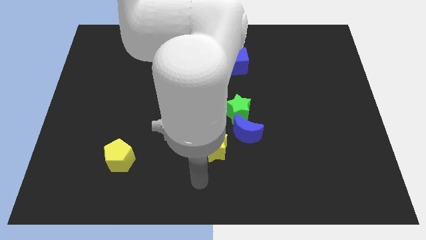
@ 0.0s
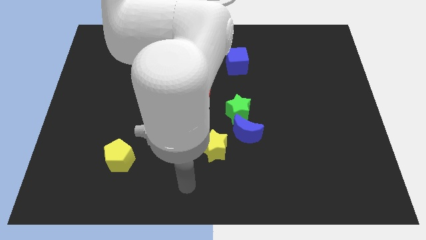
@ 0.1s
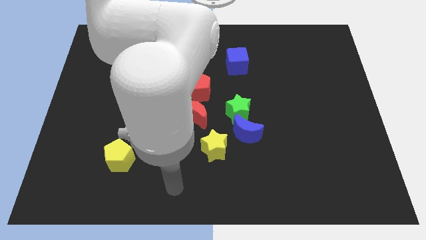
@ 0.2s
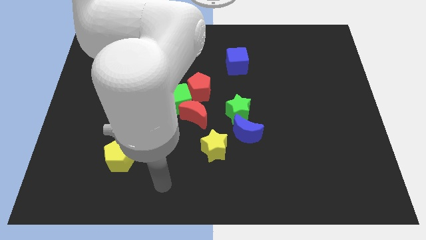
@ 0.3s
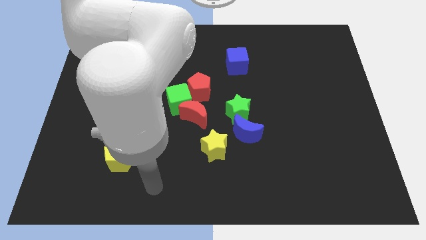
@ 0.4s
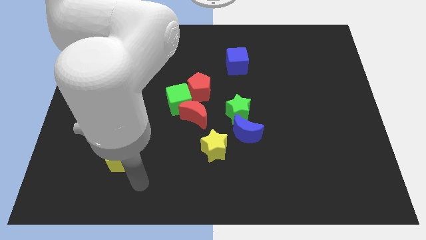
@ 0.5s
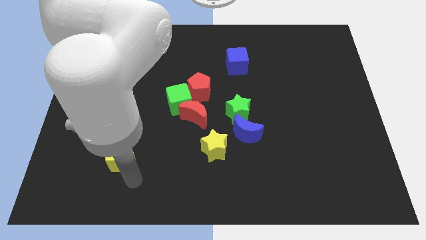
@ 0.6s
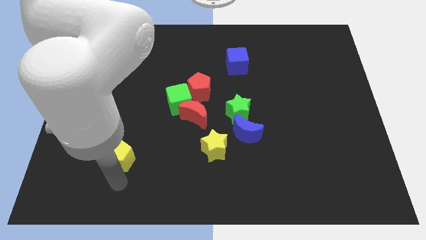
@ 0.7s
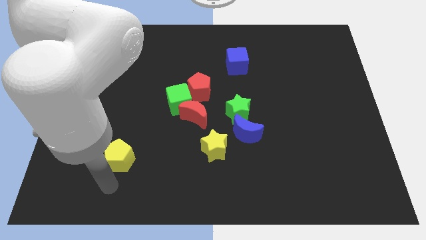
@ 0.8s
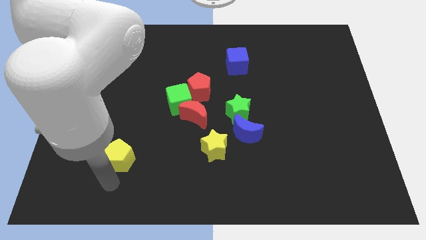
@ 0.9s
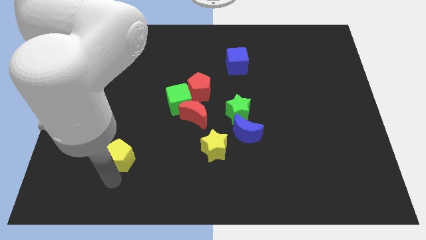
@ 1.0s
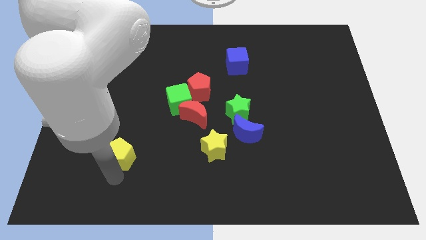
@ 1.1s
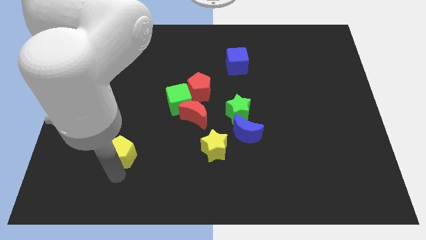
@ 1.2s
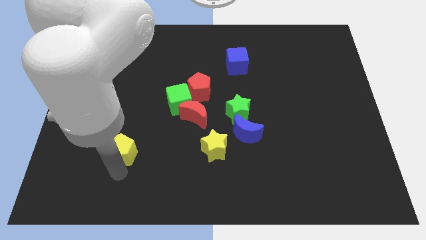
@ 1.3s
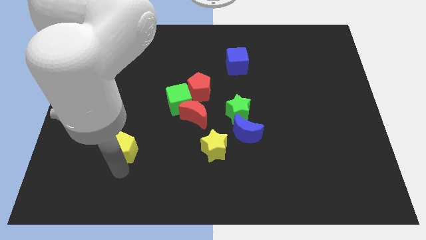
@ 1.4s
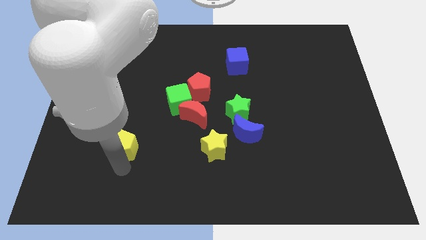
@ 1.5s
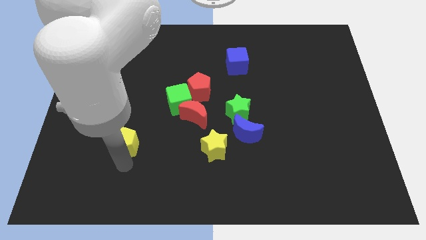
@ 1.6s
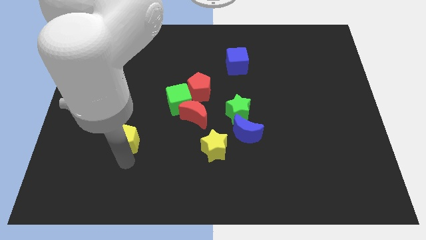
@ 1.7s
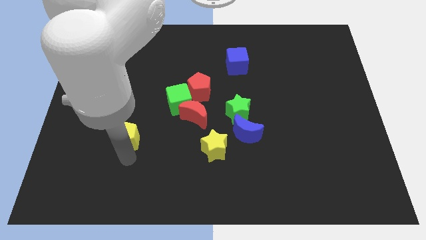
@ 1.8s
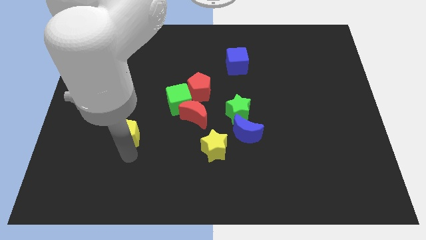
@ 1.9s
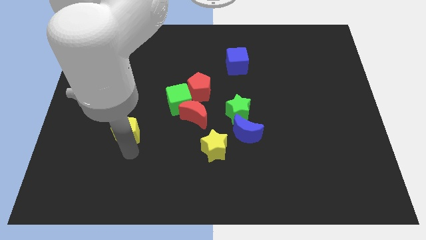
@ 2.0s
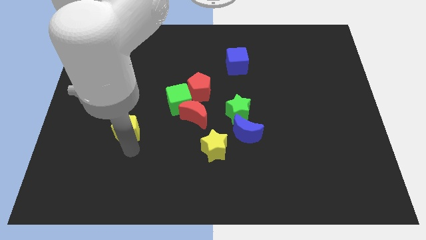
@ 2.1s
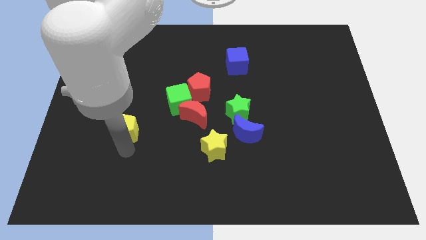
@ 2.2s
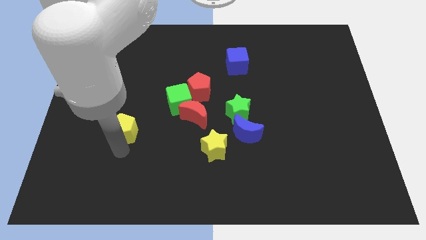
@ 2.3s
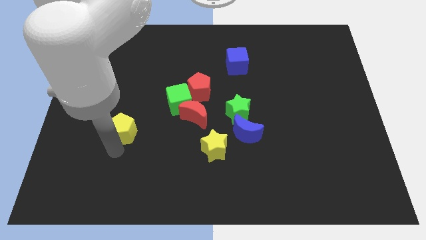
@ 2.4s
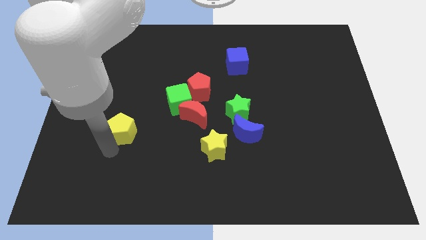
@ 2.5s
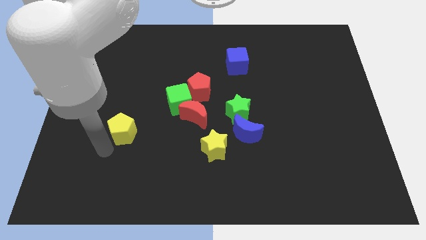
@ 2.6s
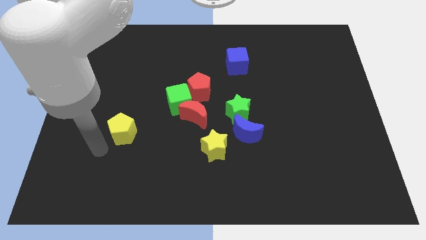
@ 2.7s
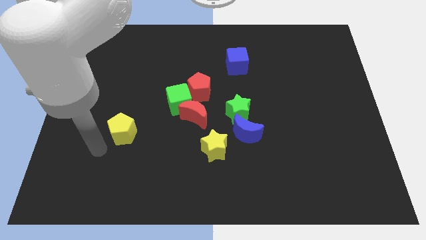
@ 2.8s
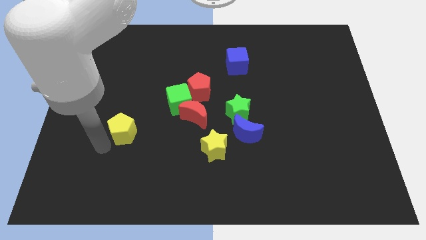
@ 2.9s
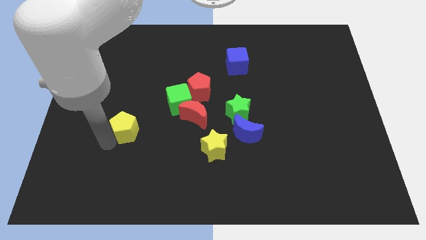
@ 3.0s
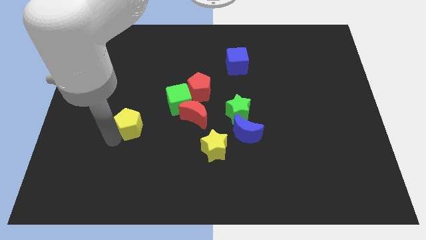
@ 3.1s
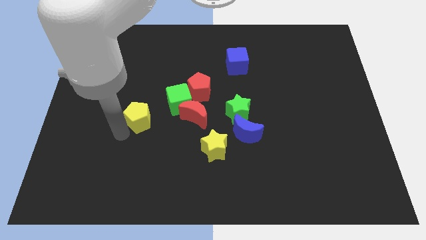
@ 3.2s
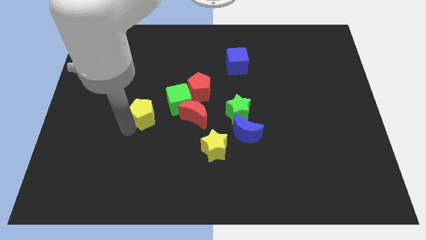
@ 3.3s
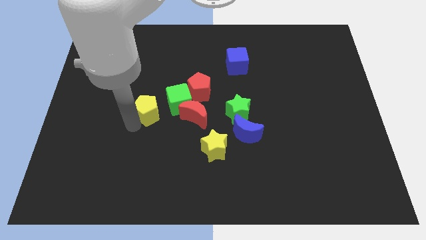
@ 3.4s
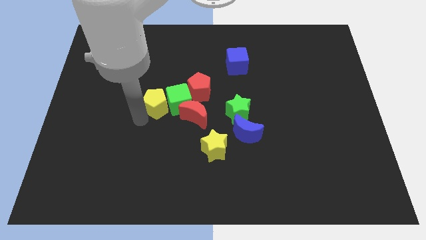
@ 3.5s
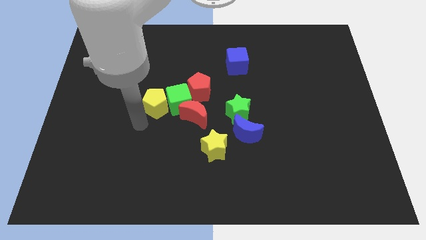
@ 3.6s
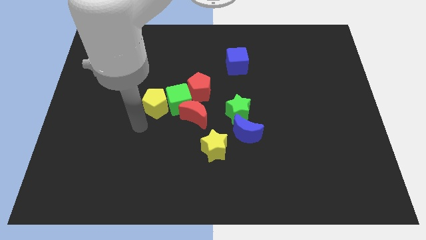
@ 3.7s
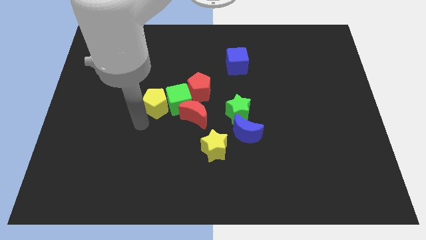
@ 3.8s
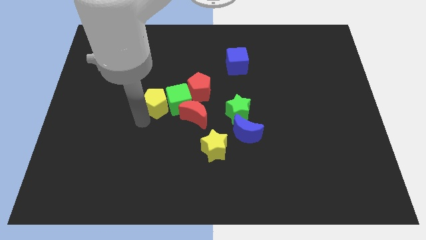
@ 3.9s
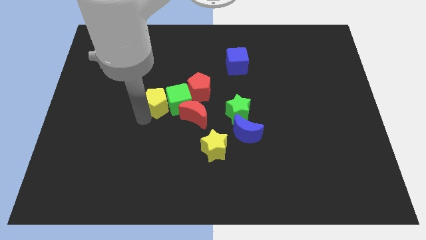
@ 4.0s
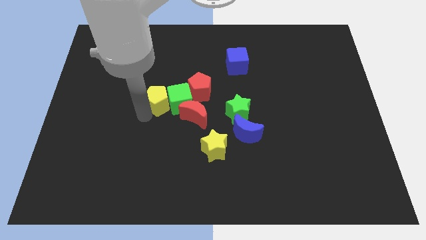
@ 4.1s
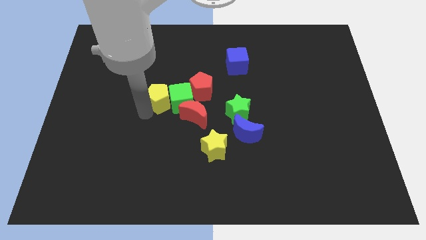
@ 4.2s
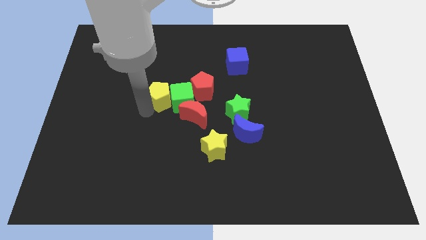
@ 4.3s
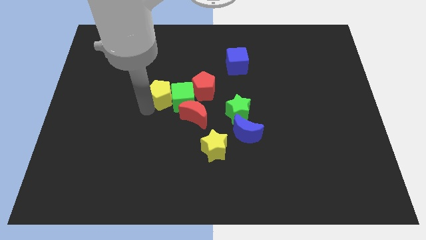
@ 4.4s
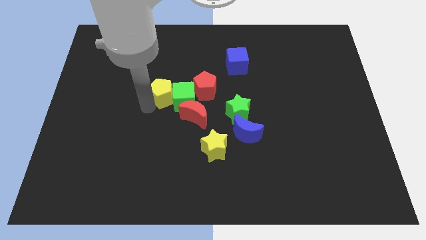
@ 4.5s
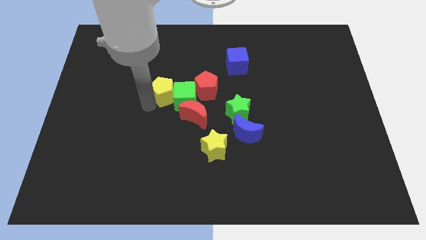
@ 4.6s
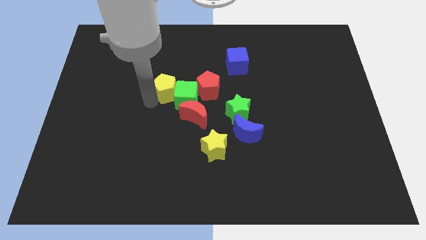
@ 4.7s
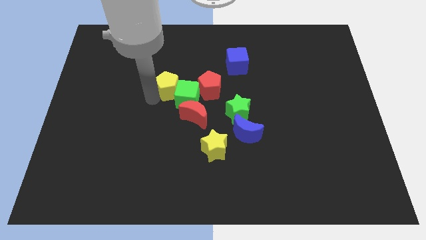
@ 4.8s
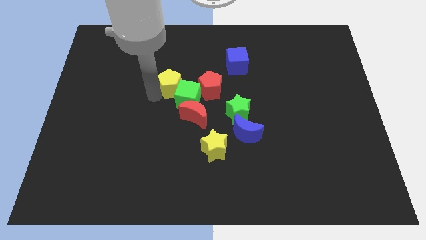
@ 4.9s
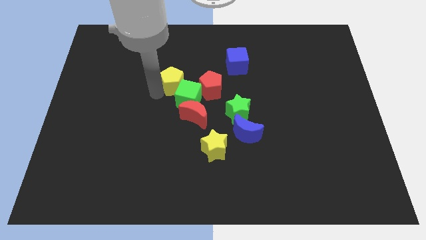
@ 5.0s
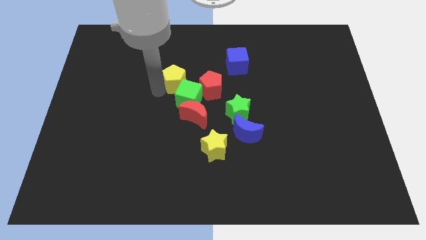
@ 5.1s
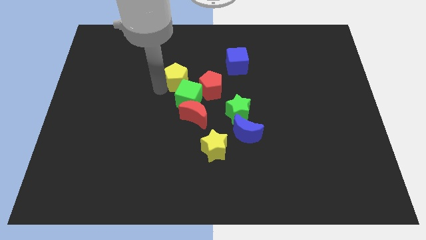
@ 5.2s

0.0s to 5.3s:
move the yellow pentagon diagonally upwards and right

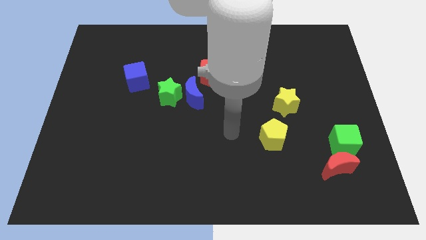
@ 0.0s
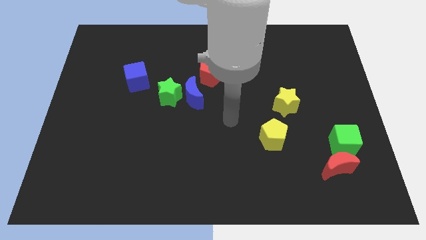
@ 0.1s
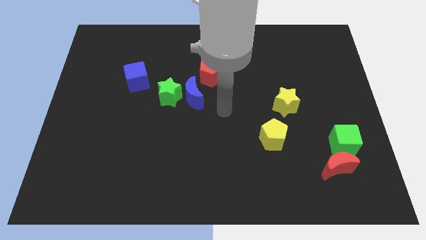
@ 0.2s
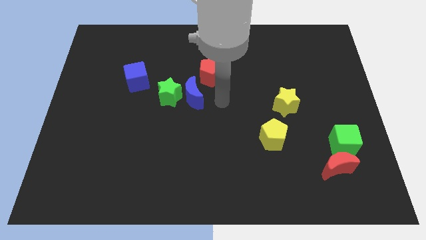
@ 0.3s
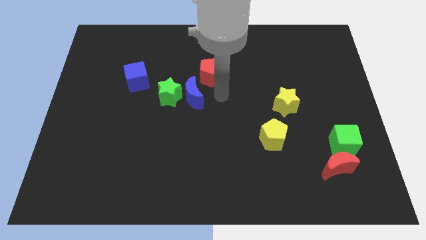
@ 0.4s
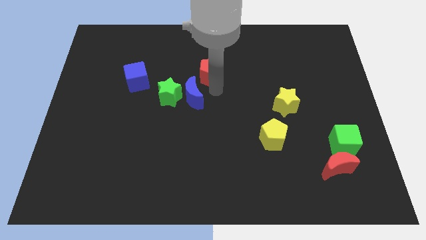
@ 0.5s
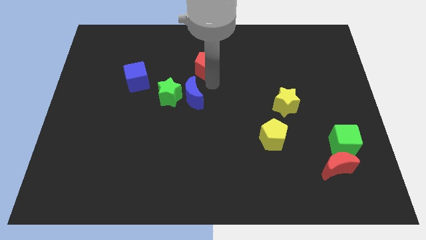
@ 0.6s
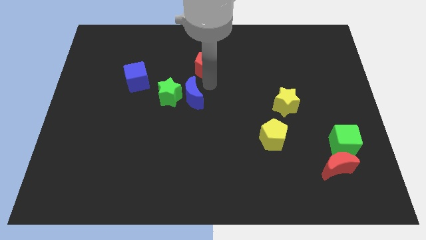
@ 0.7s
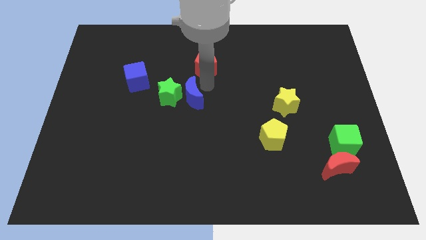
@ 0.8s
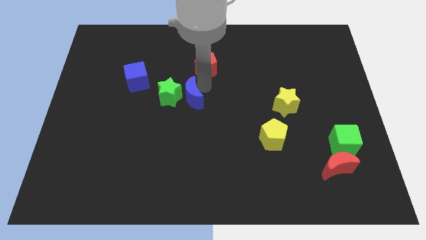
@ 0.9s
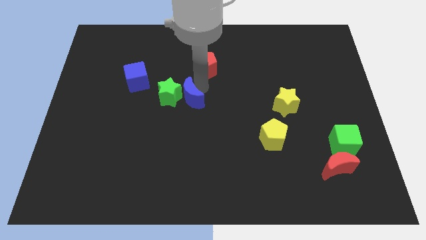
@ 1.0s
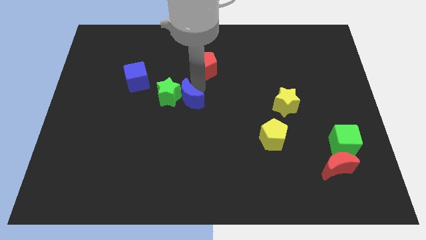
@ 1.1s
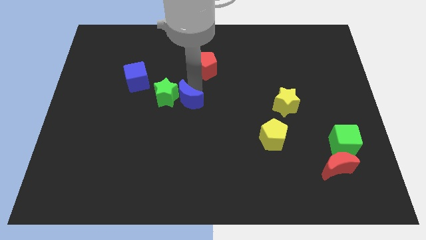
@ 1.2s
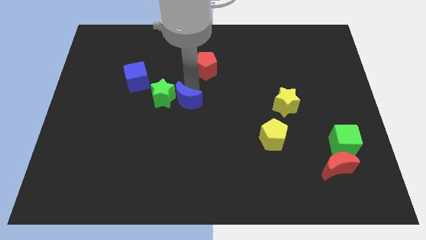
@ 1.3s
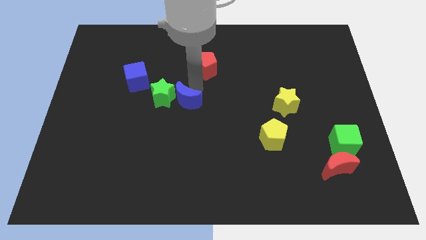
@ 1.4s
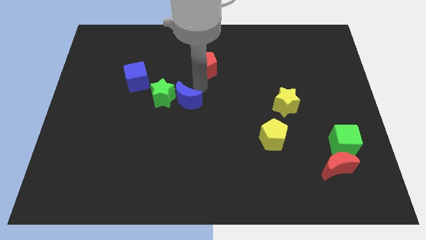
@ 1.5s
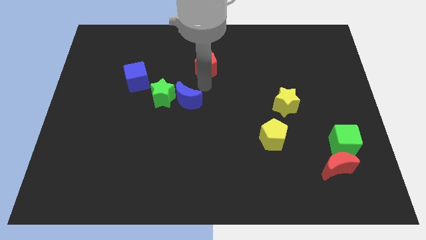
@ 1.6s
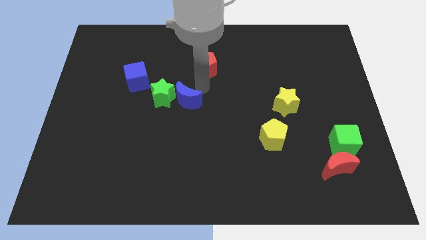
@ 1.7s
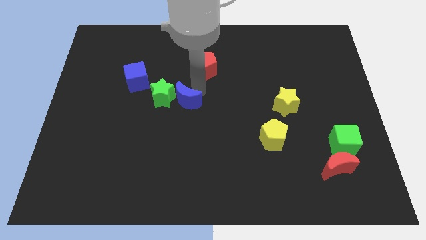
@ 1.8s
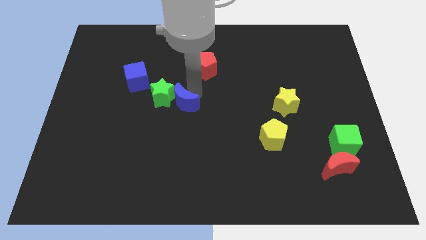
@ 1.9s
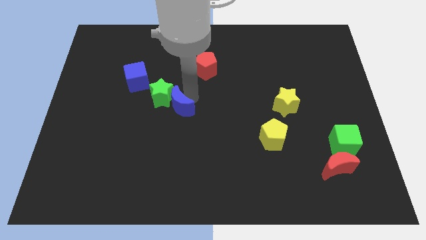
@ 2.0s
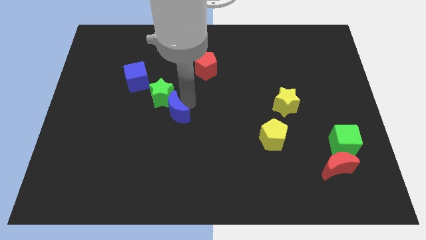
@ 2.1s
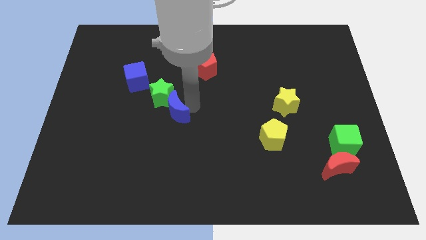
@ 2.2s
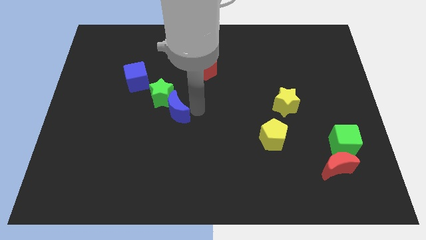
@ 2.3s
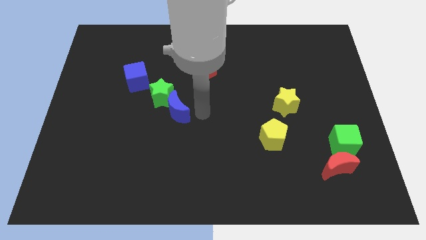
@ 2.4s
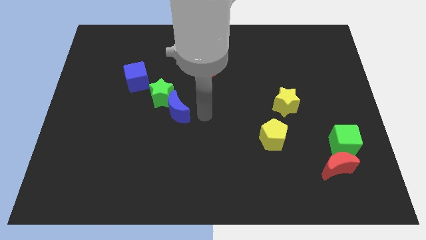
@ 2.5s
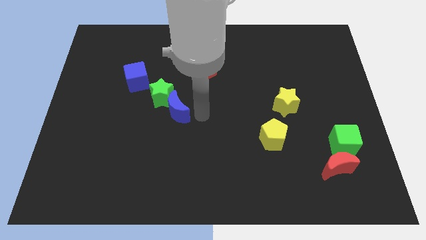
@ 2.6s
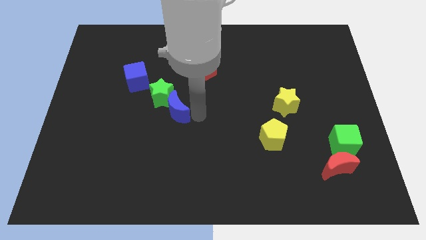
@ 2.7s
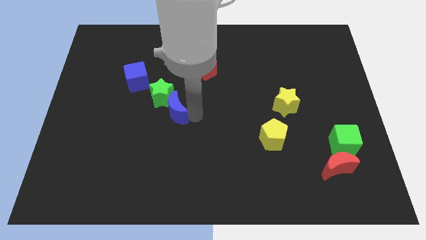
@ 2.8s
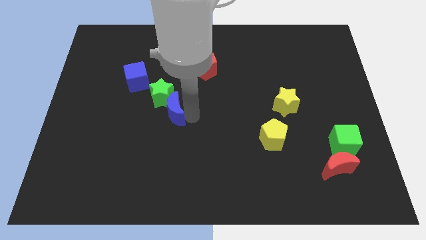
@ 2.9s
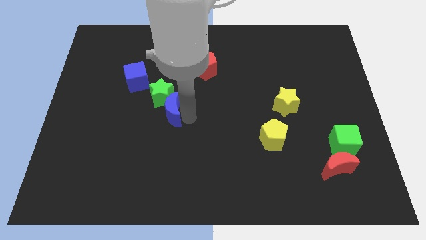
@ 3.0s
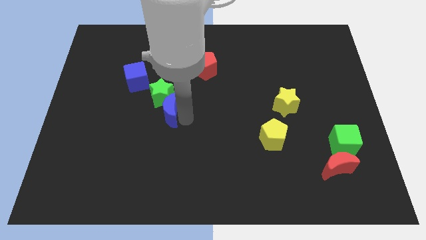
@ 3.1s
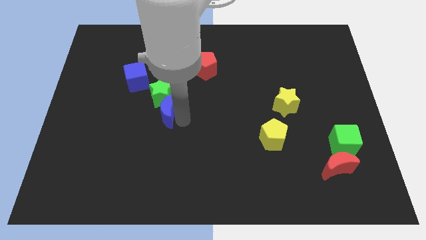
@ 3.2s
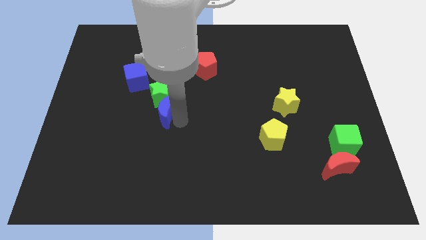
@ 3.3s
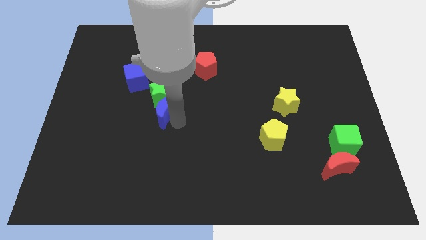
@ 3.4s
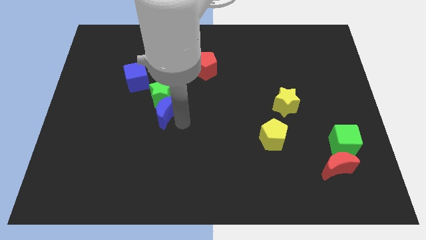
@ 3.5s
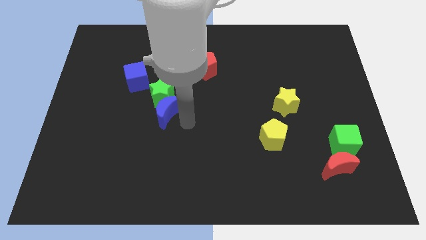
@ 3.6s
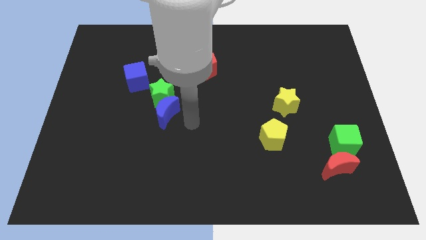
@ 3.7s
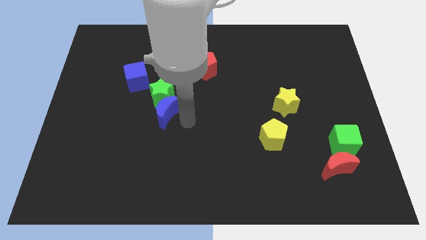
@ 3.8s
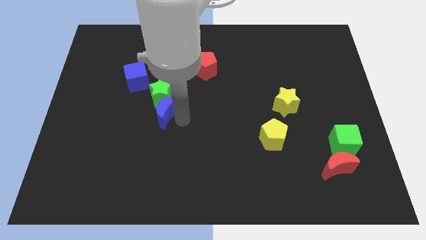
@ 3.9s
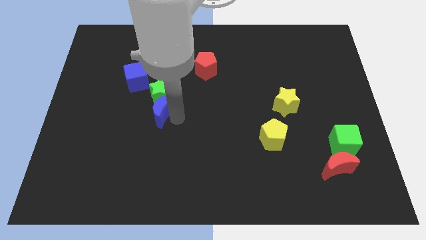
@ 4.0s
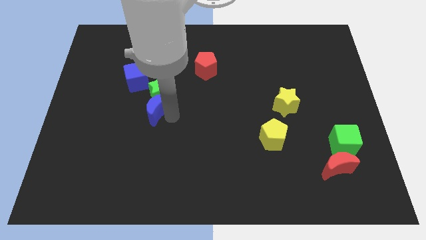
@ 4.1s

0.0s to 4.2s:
move the blue moon to the left a little bit
